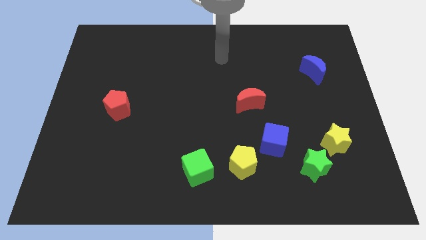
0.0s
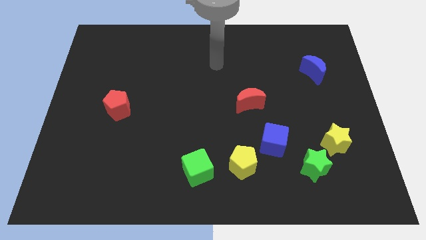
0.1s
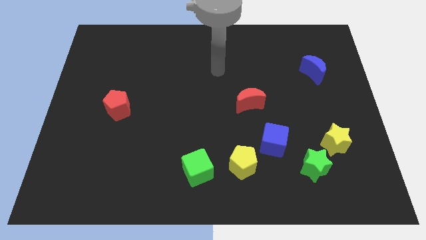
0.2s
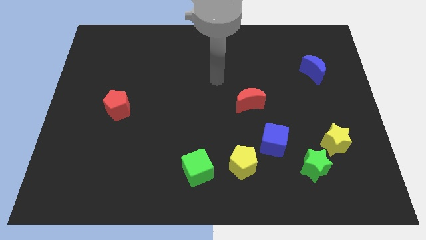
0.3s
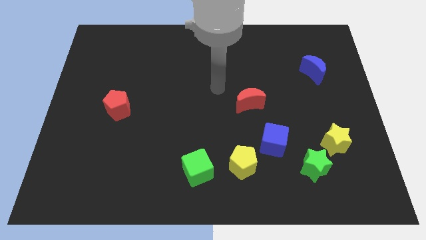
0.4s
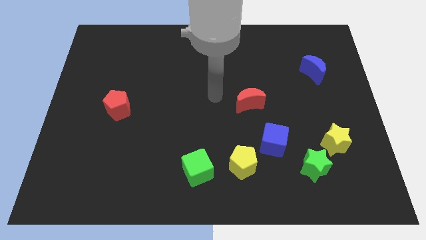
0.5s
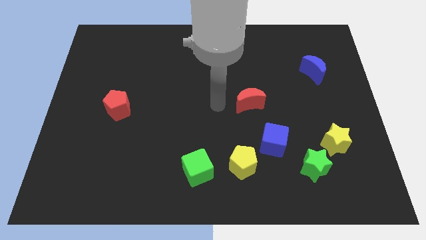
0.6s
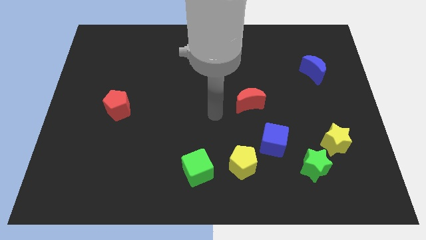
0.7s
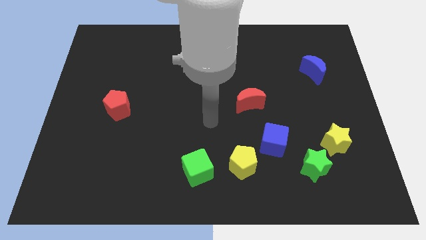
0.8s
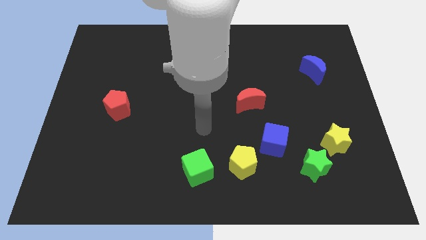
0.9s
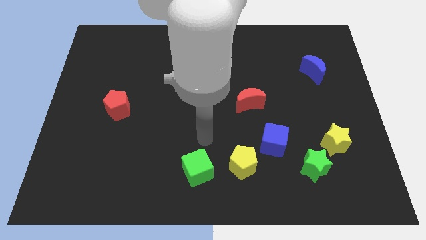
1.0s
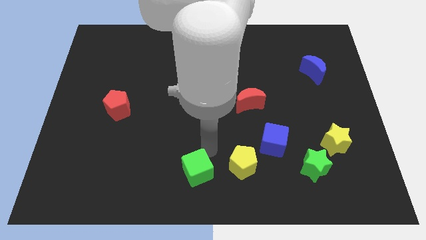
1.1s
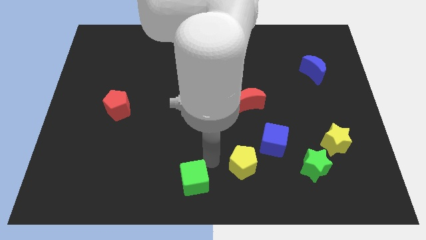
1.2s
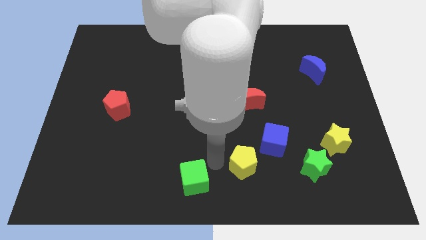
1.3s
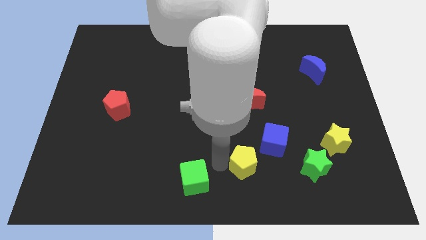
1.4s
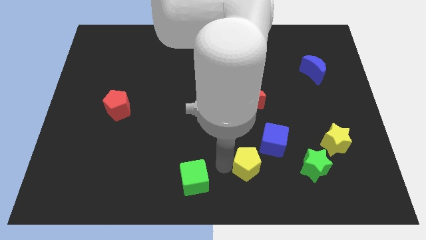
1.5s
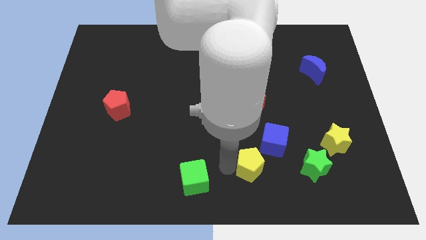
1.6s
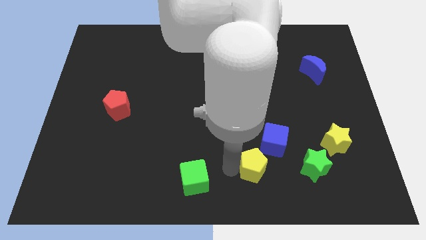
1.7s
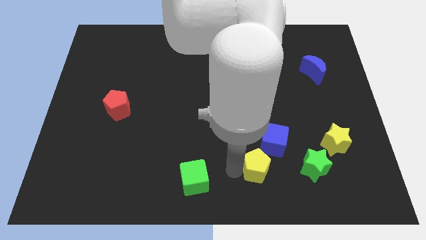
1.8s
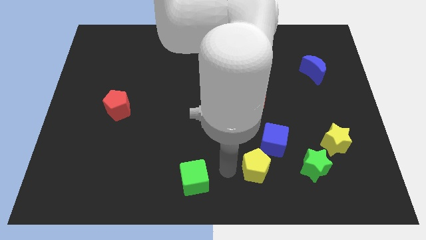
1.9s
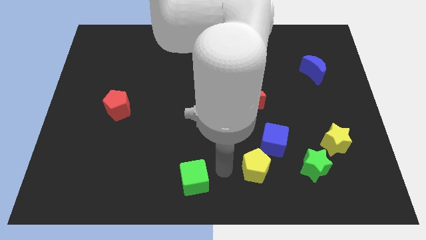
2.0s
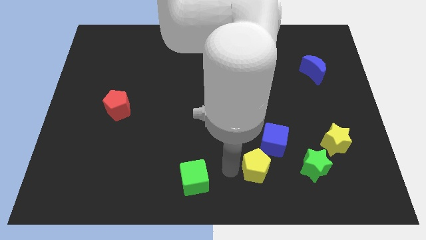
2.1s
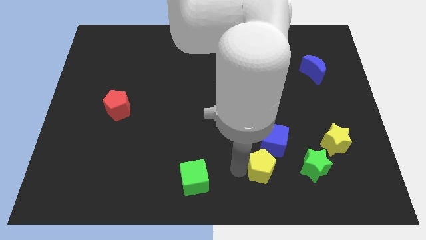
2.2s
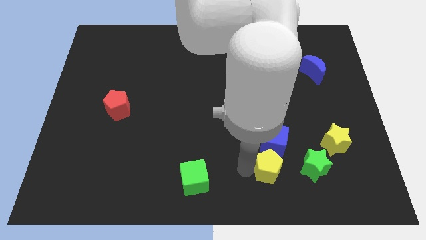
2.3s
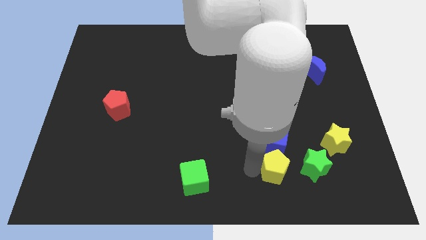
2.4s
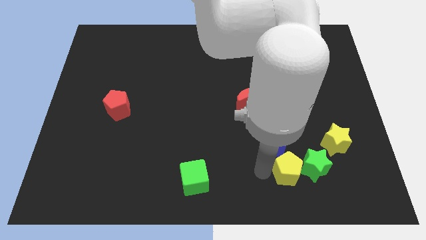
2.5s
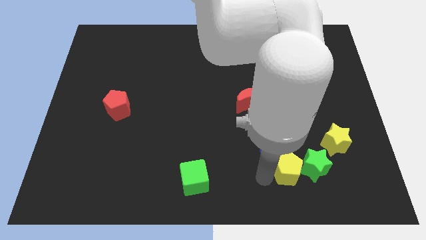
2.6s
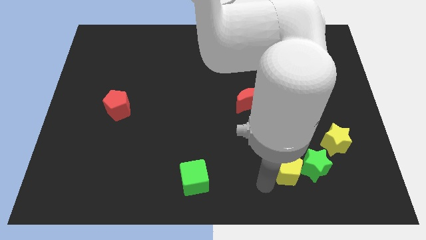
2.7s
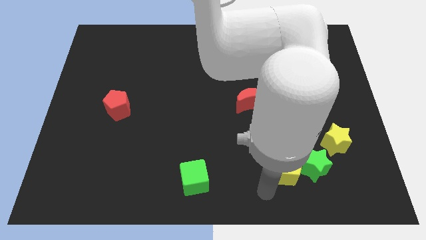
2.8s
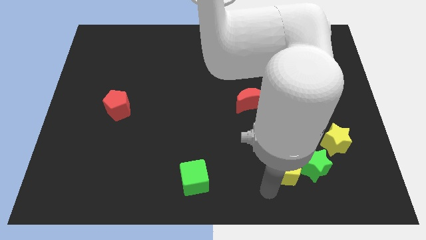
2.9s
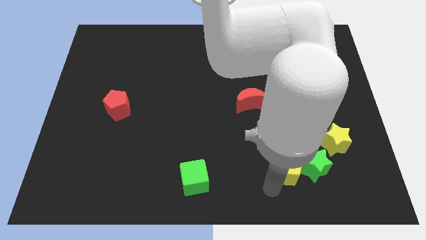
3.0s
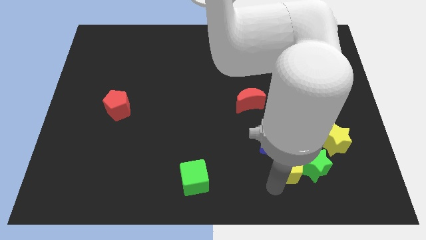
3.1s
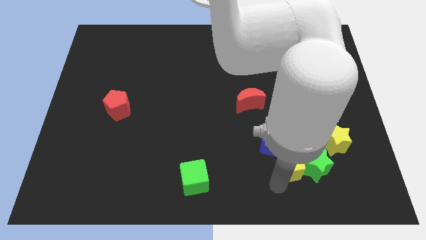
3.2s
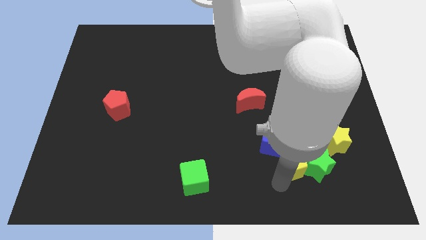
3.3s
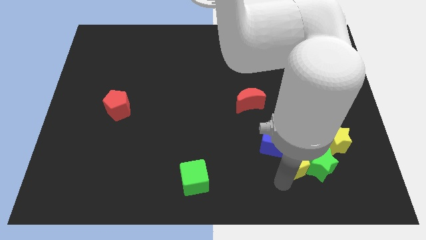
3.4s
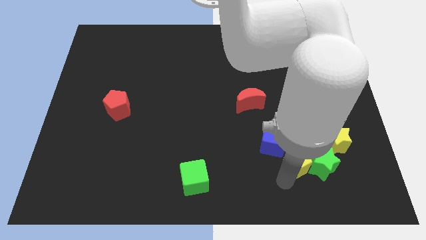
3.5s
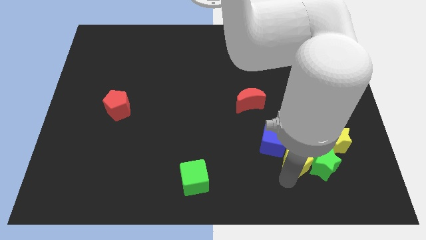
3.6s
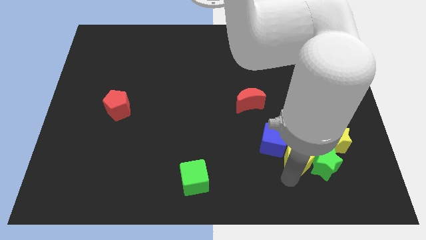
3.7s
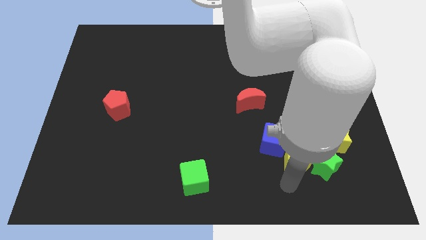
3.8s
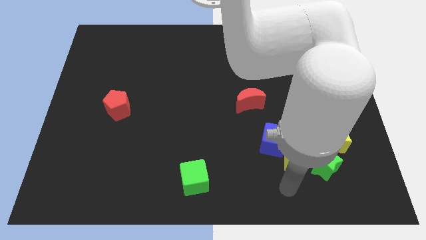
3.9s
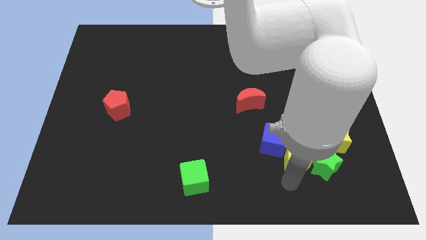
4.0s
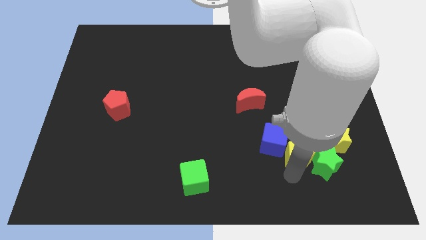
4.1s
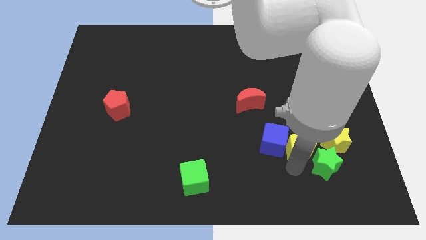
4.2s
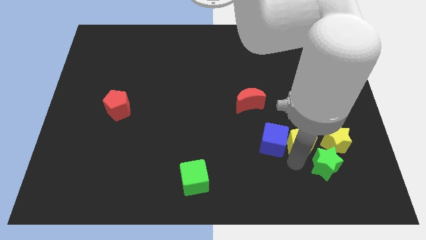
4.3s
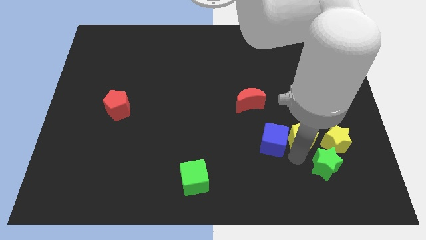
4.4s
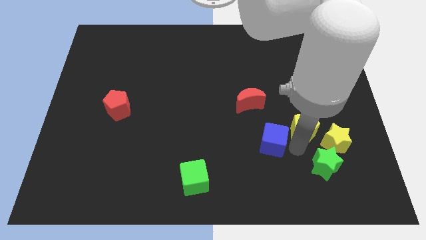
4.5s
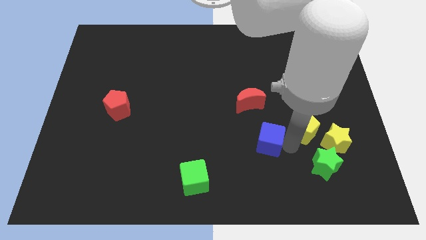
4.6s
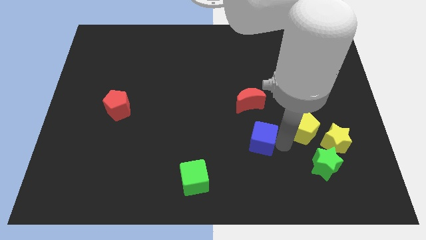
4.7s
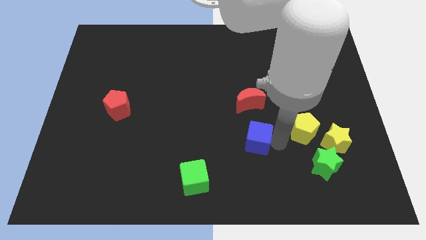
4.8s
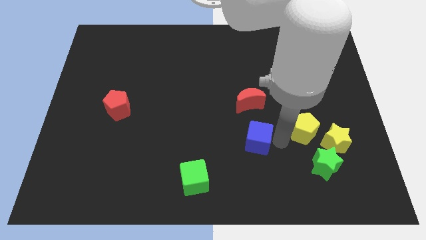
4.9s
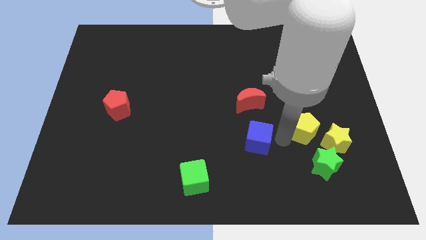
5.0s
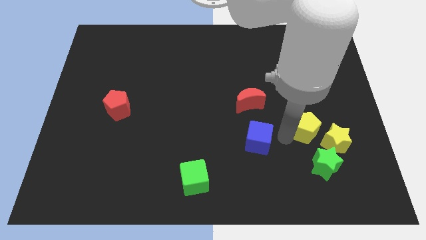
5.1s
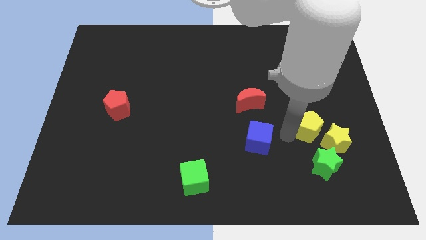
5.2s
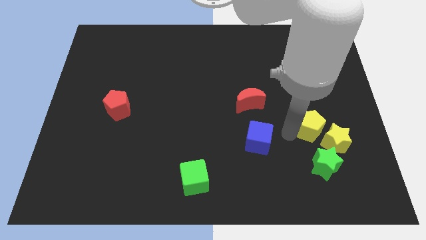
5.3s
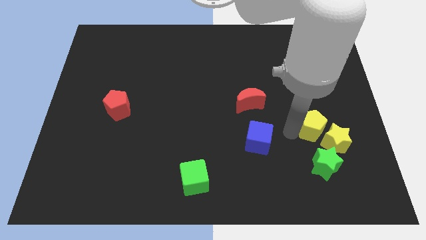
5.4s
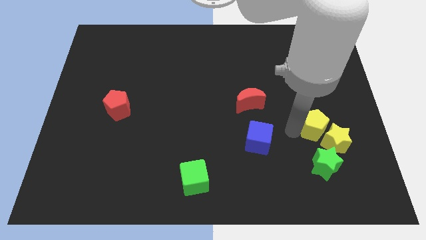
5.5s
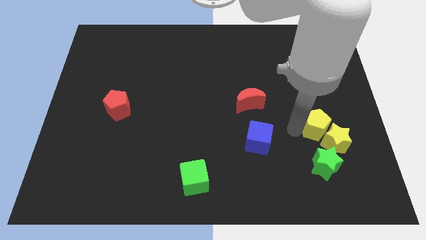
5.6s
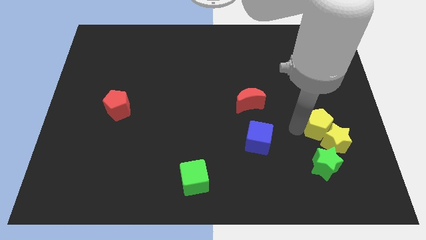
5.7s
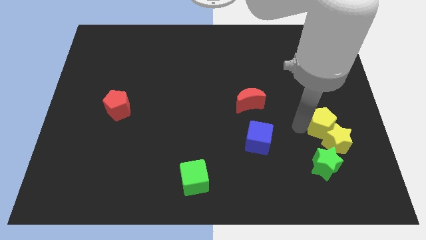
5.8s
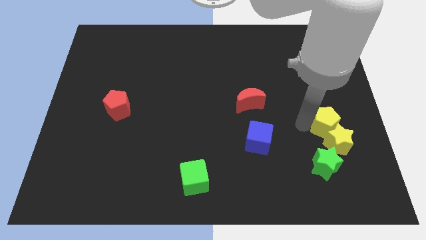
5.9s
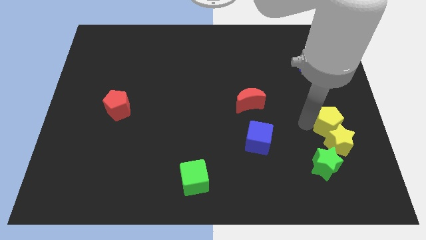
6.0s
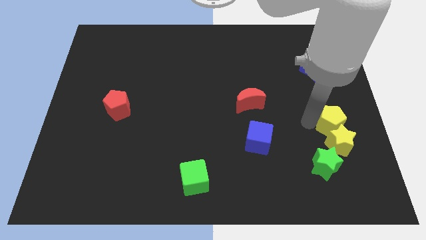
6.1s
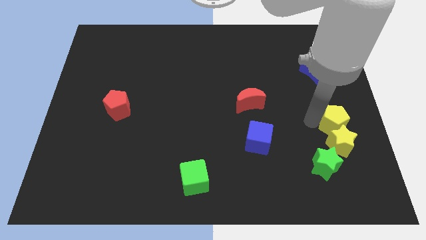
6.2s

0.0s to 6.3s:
slide the yellow pentagon to the right side of the board
